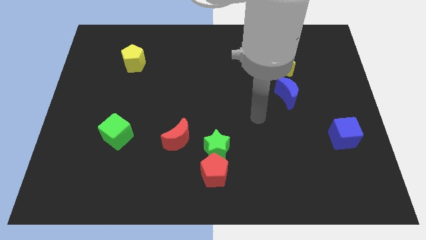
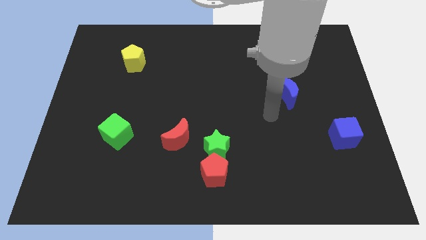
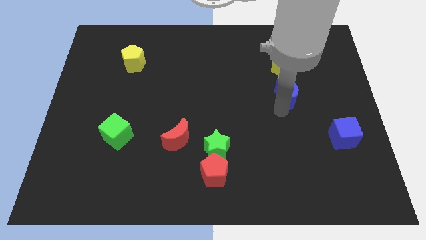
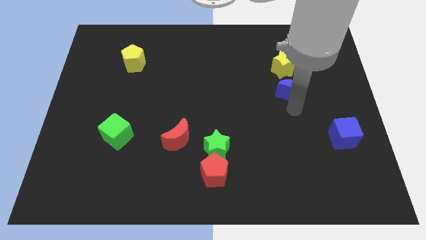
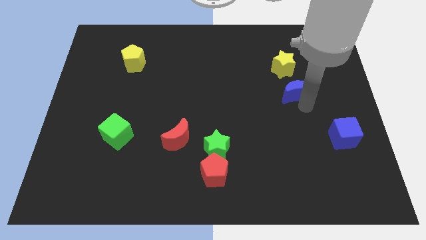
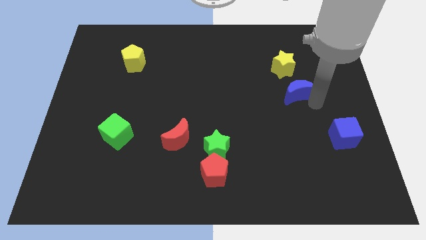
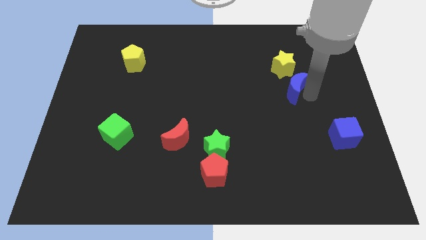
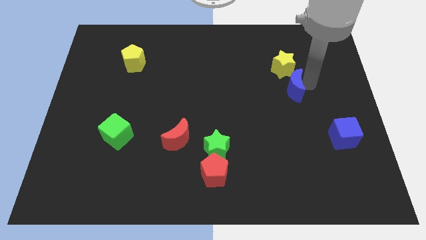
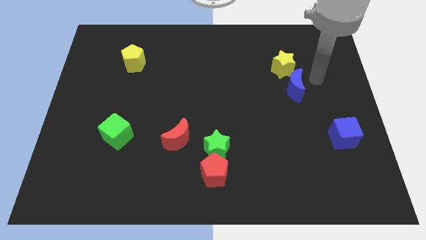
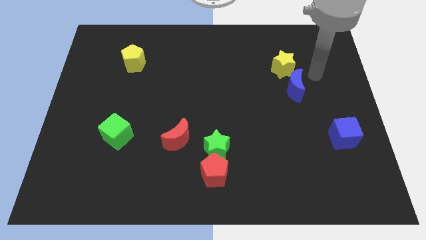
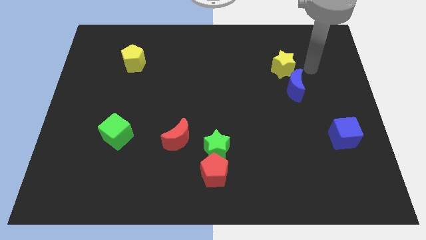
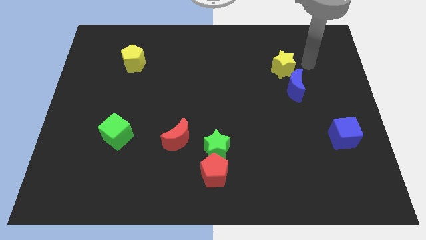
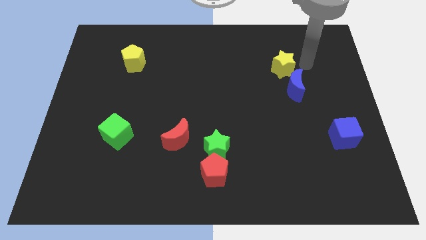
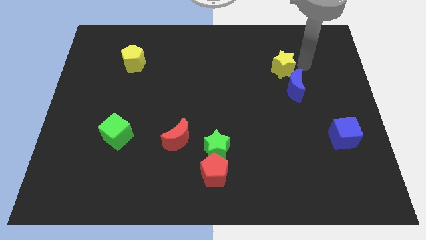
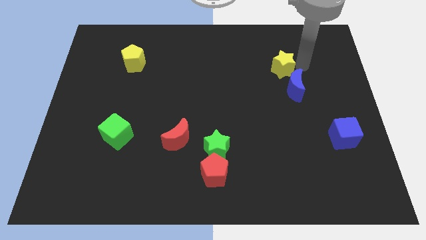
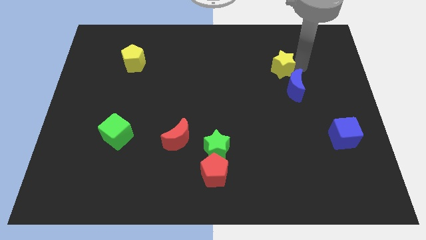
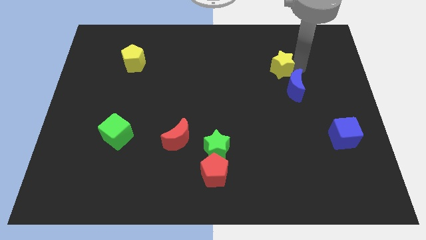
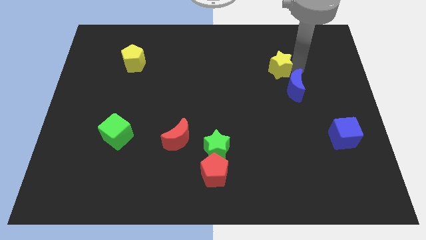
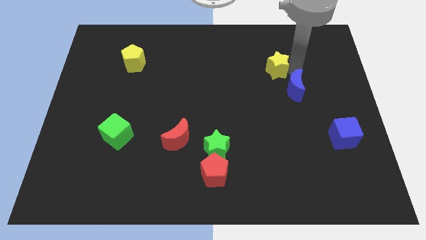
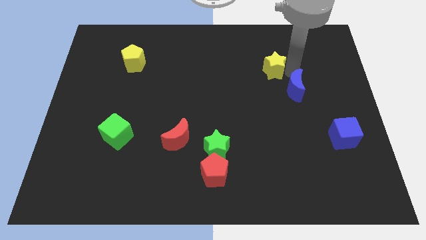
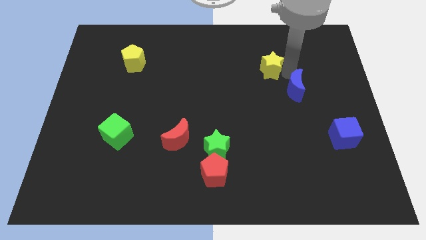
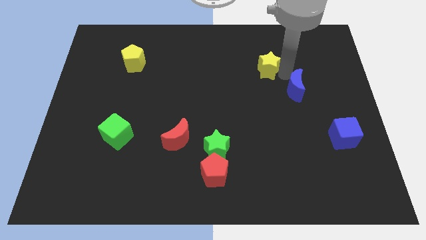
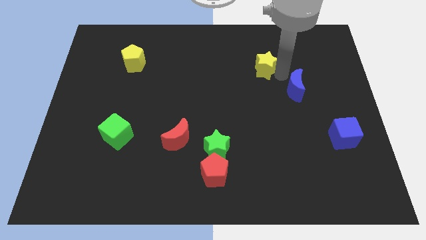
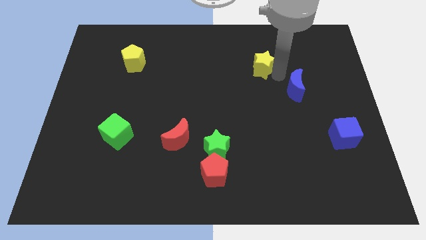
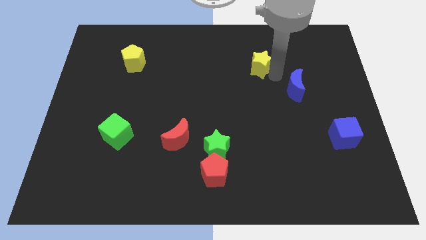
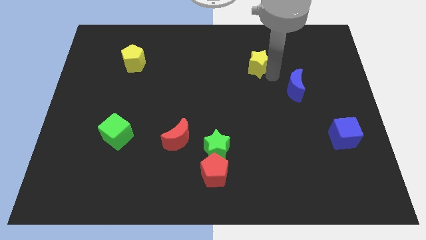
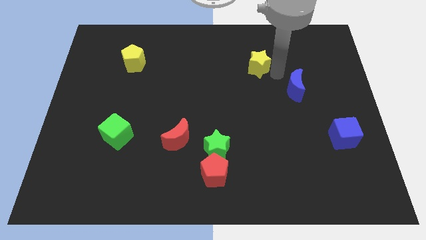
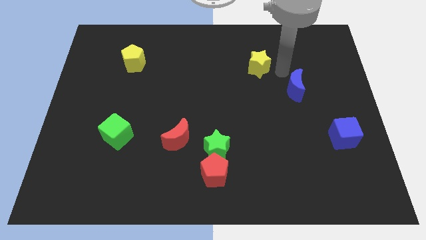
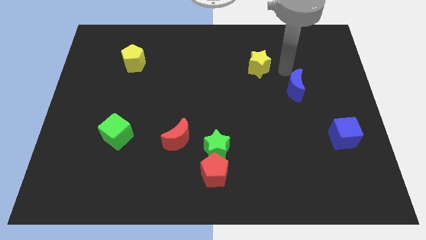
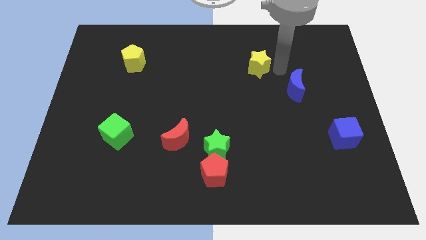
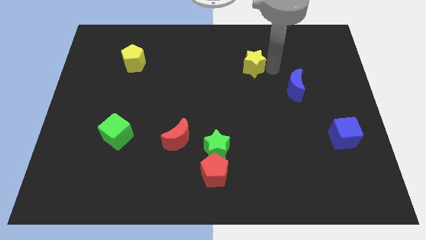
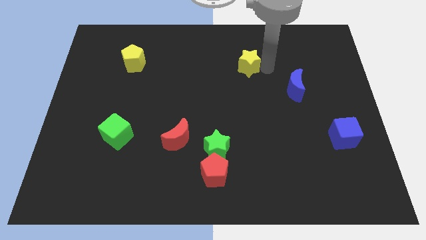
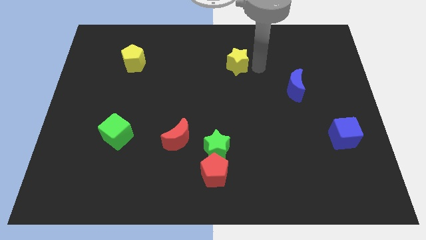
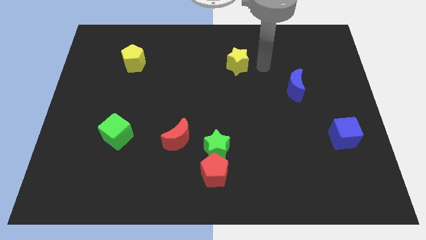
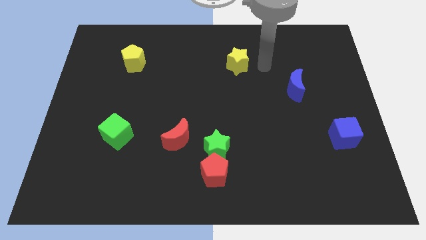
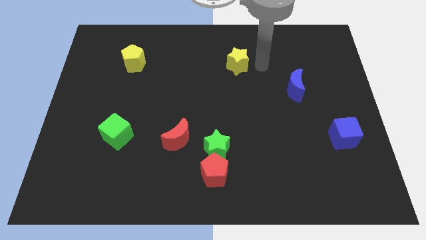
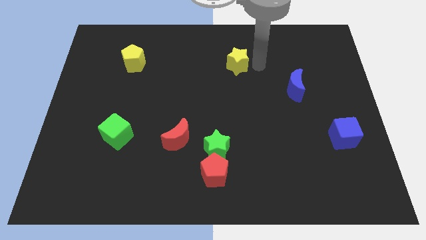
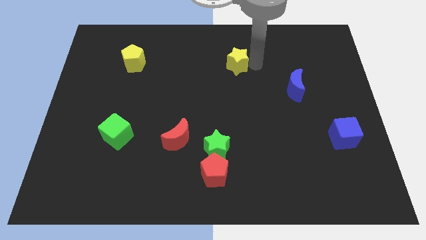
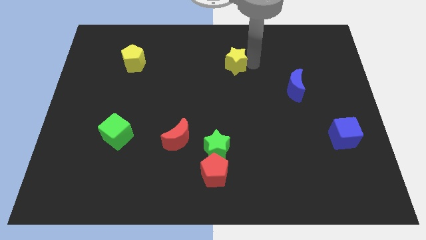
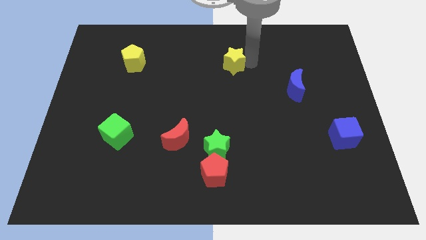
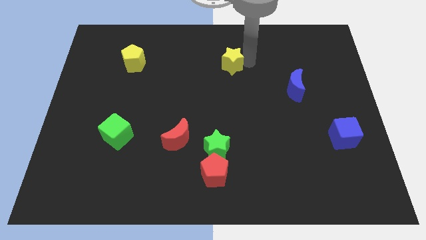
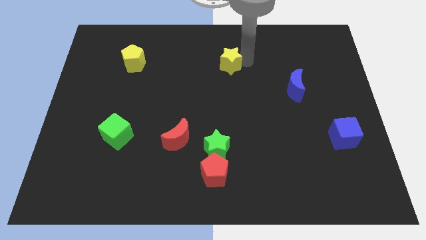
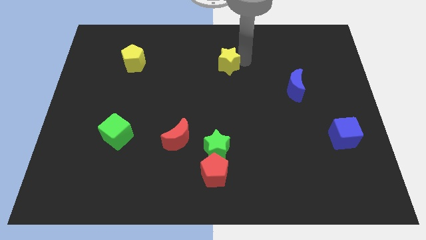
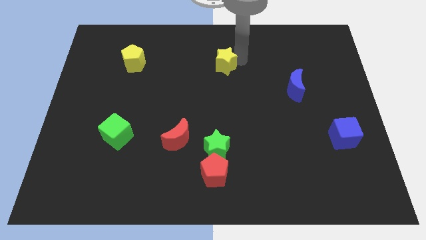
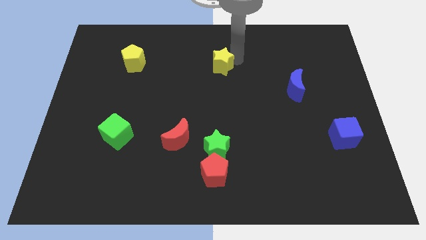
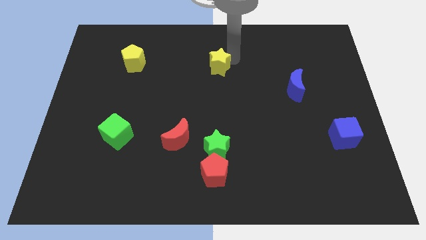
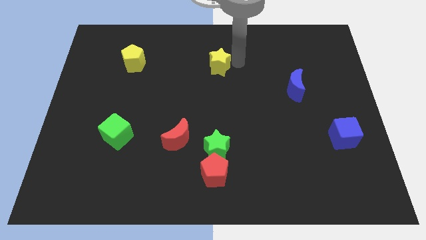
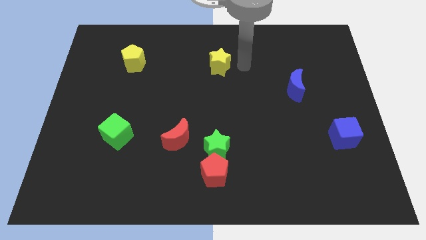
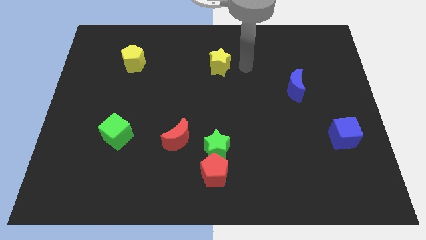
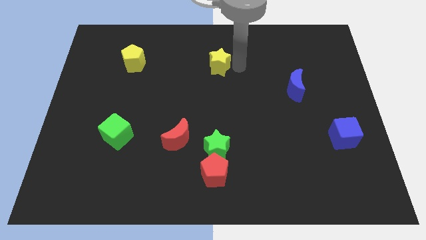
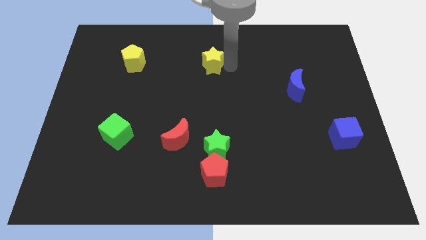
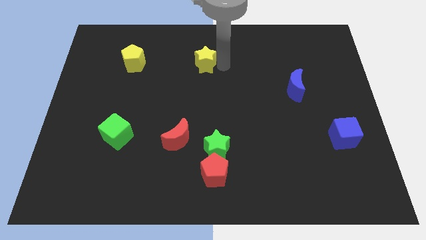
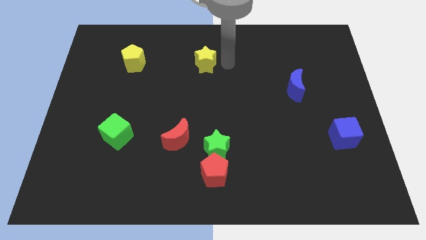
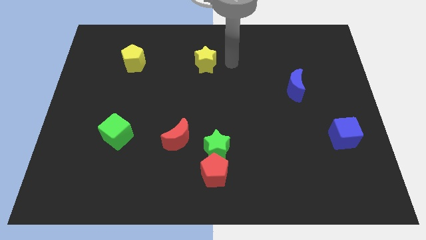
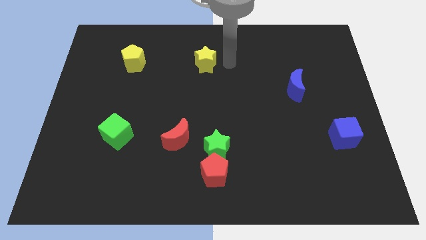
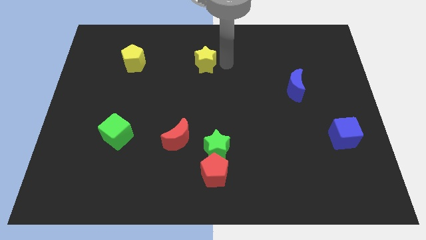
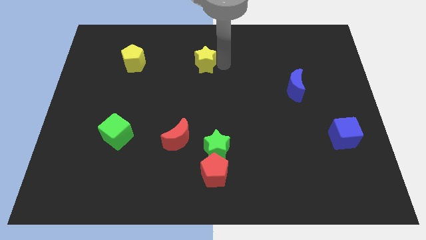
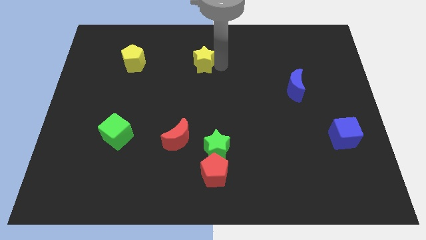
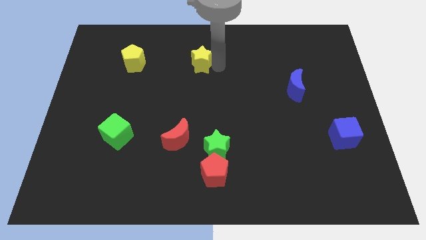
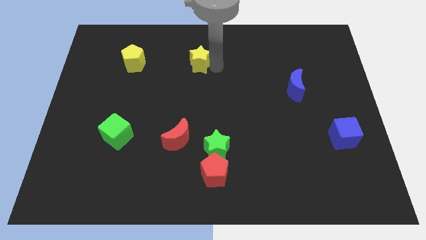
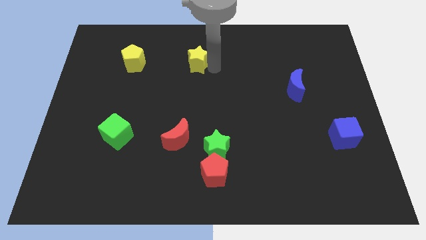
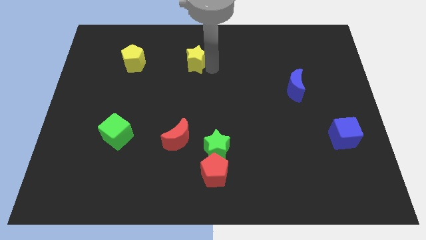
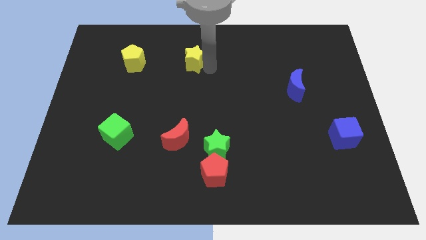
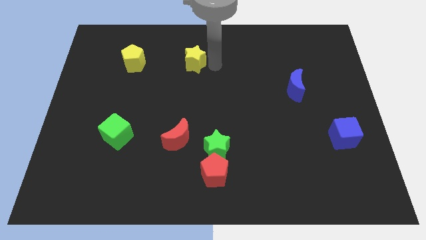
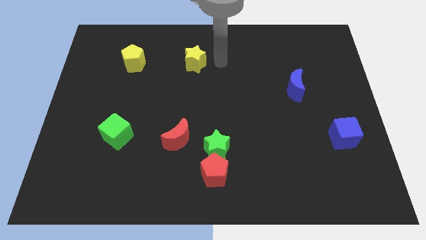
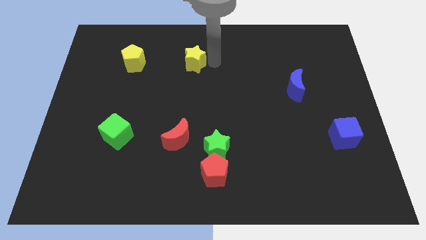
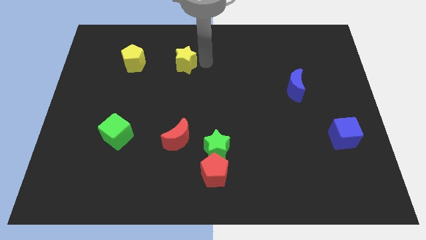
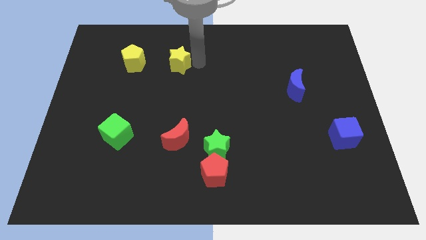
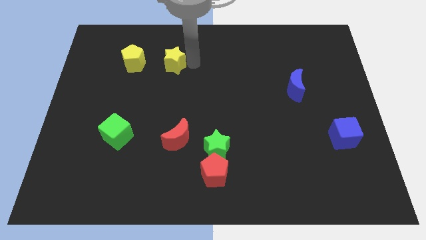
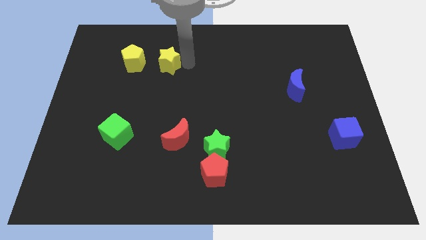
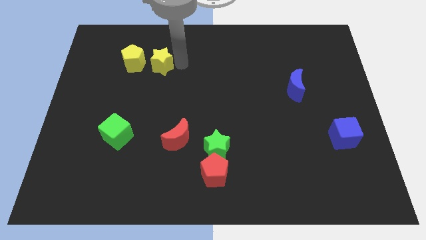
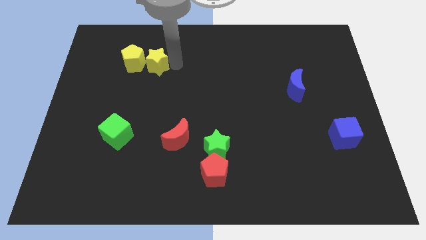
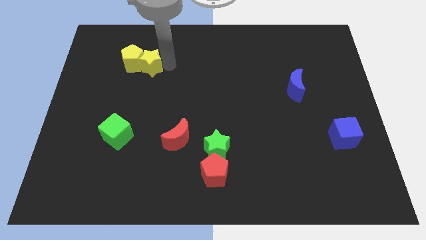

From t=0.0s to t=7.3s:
put the yellow star next to the yellow pentagon
